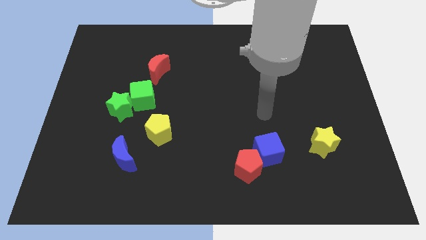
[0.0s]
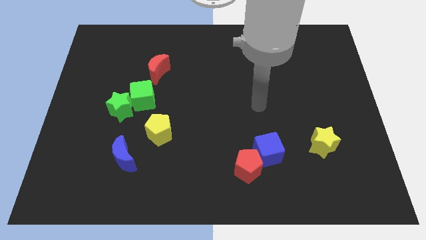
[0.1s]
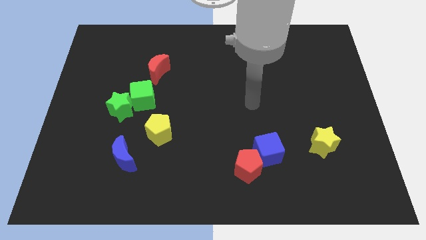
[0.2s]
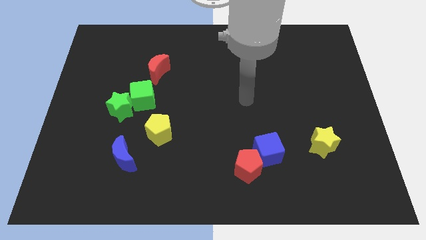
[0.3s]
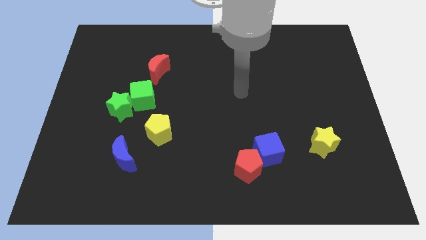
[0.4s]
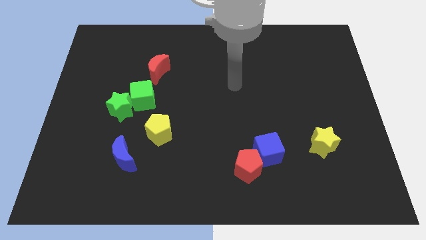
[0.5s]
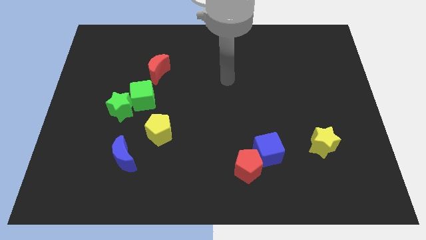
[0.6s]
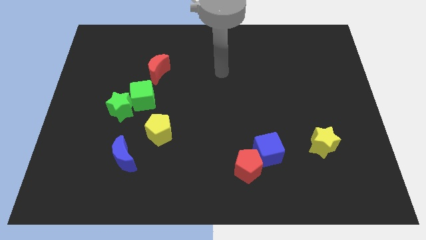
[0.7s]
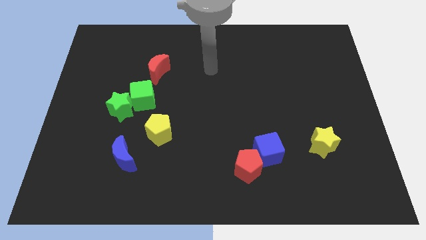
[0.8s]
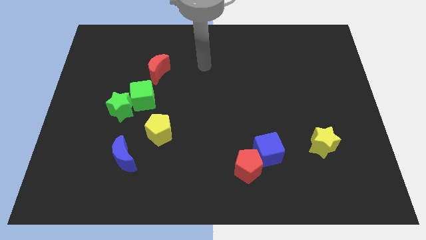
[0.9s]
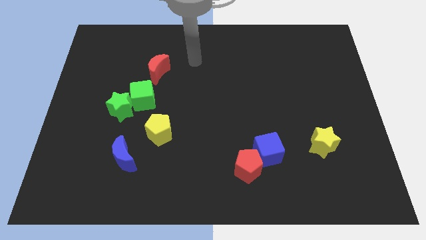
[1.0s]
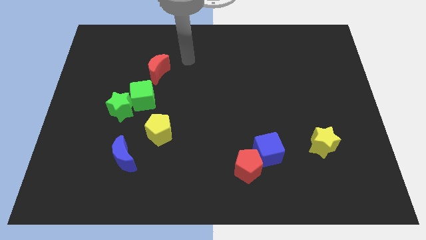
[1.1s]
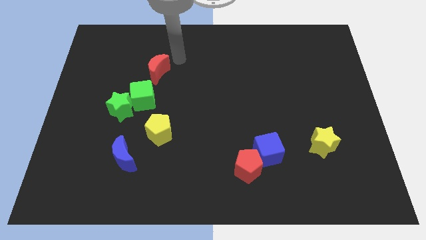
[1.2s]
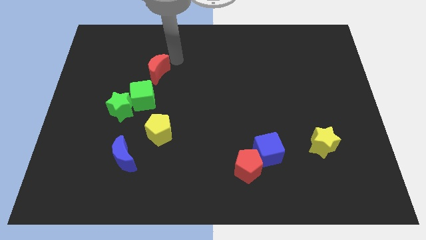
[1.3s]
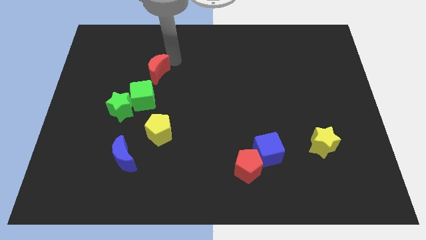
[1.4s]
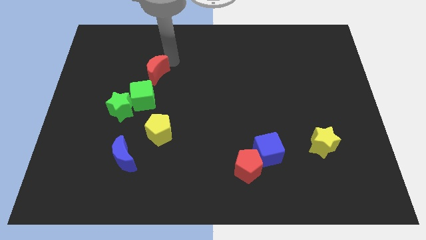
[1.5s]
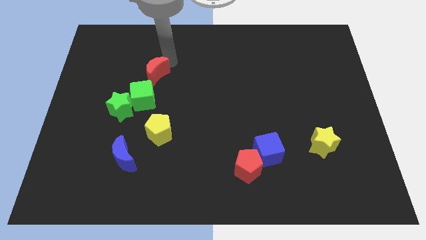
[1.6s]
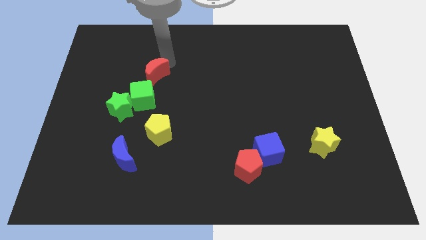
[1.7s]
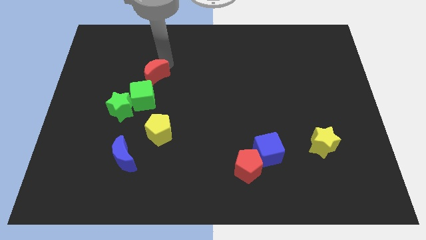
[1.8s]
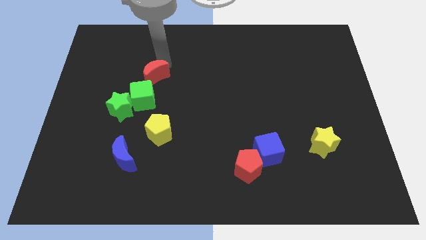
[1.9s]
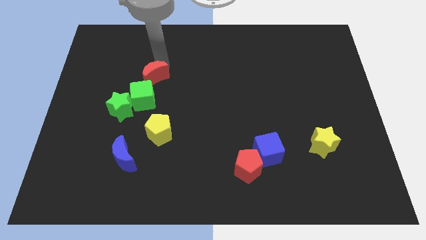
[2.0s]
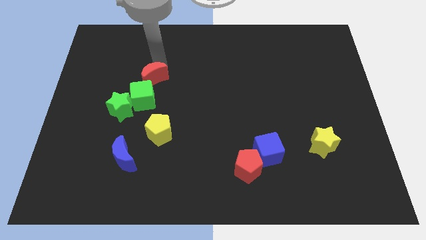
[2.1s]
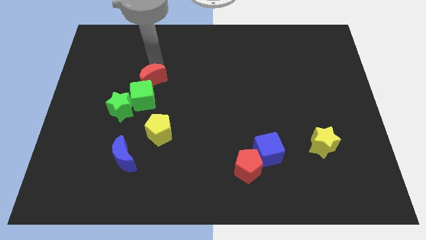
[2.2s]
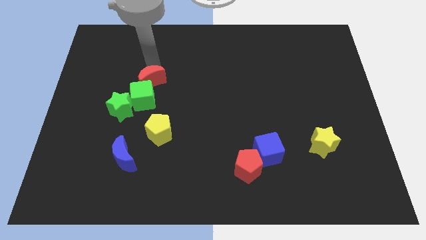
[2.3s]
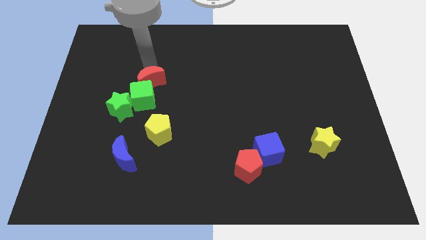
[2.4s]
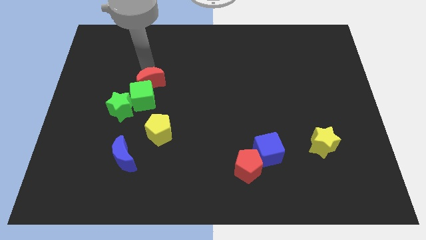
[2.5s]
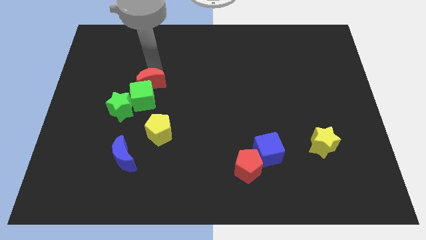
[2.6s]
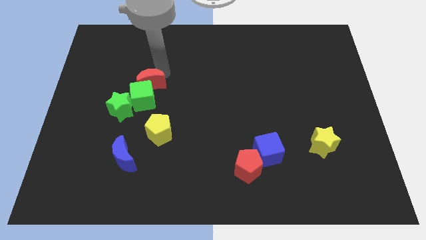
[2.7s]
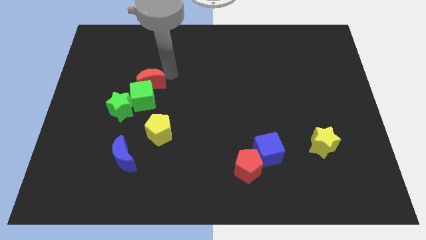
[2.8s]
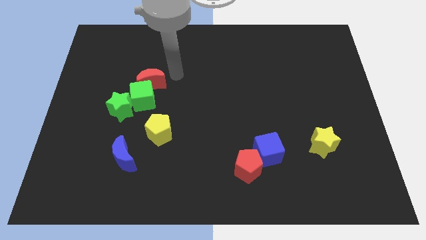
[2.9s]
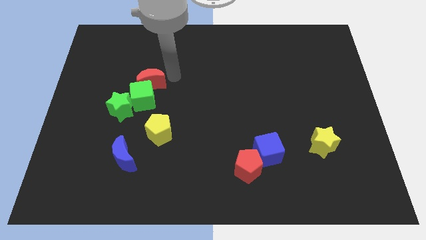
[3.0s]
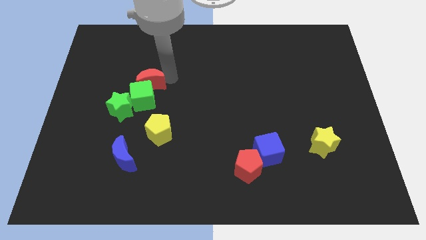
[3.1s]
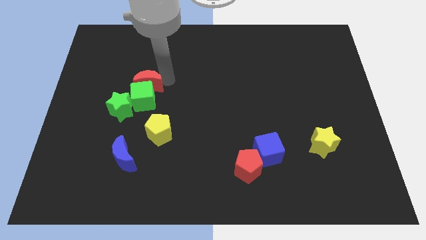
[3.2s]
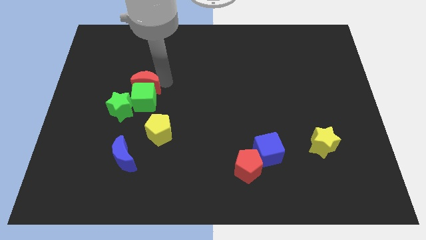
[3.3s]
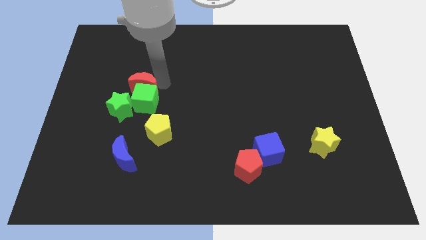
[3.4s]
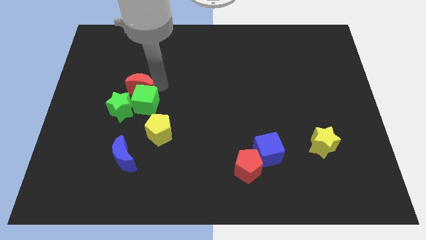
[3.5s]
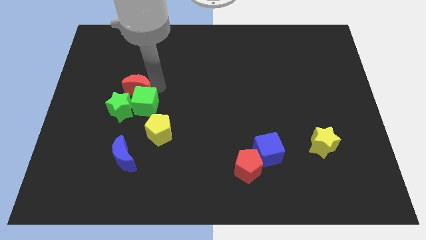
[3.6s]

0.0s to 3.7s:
slide the red moon a little bit down and to the left

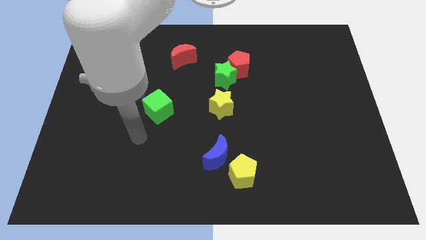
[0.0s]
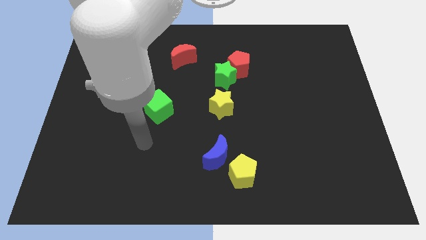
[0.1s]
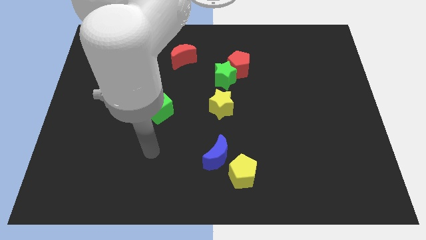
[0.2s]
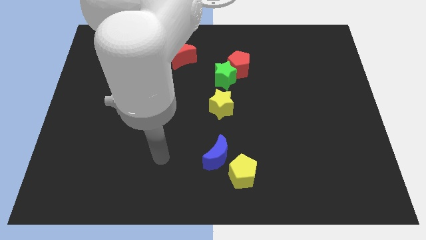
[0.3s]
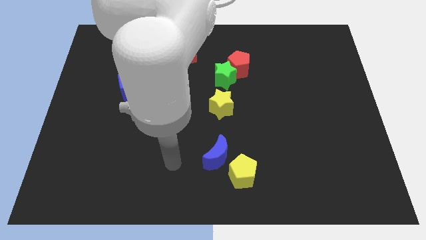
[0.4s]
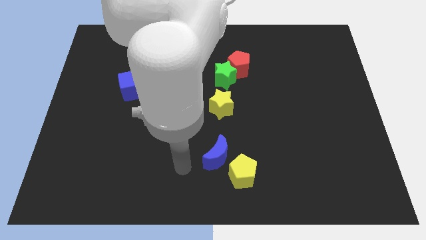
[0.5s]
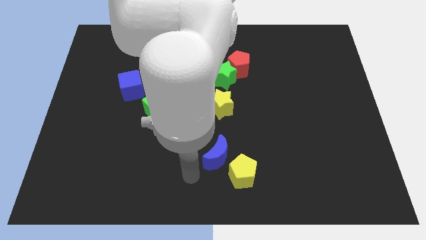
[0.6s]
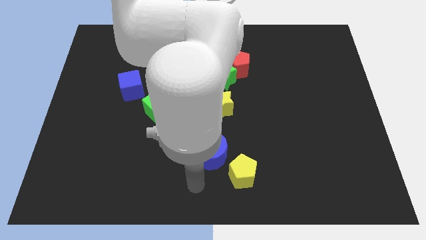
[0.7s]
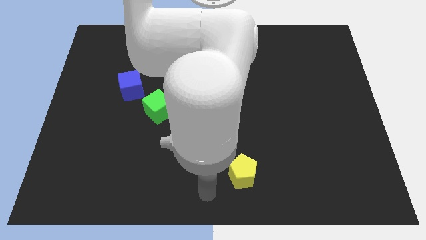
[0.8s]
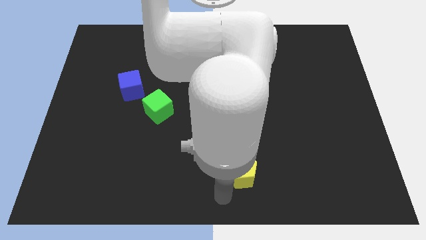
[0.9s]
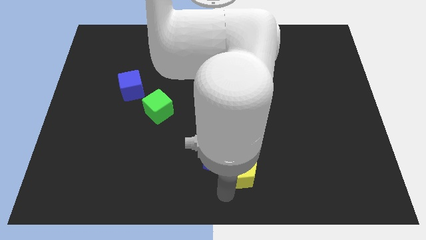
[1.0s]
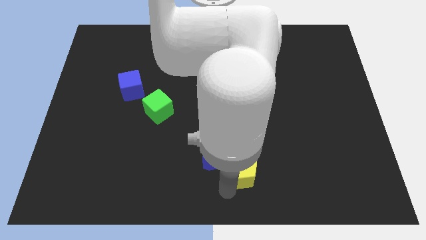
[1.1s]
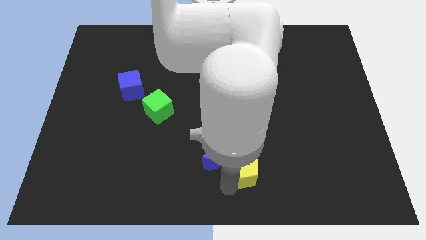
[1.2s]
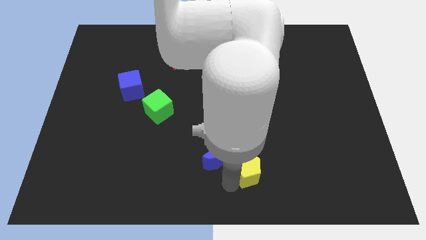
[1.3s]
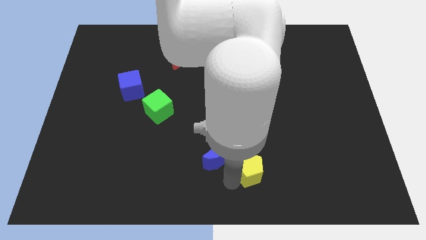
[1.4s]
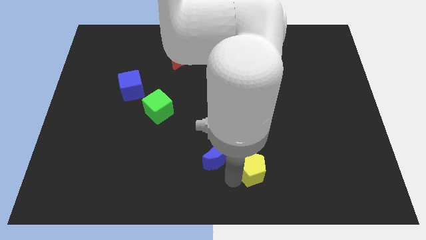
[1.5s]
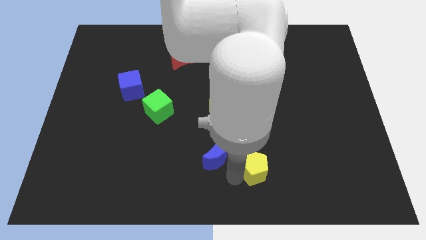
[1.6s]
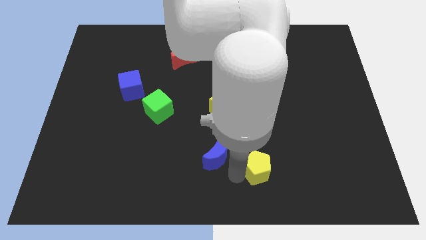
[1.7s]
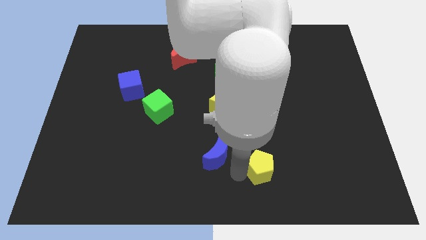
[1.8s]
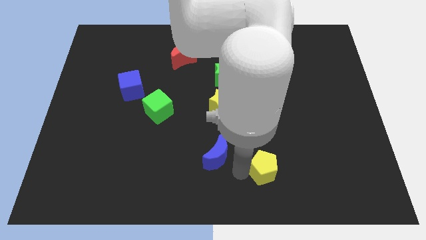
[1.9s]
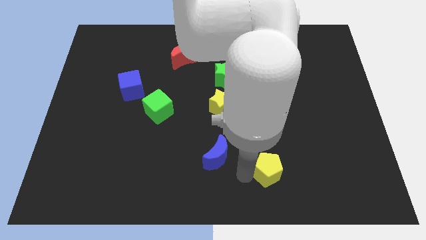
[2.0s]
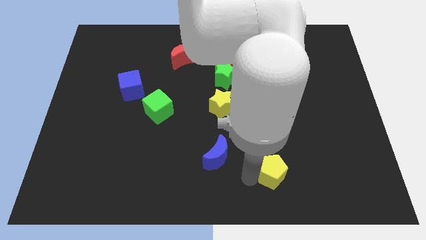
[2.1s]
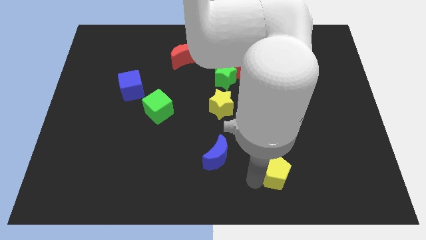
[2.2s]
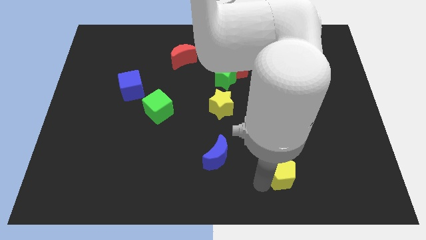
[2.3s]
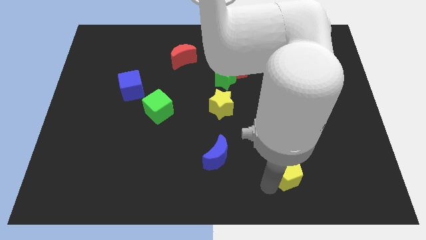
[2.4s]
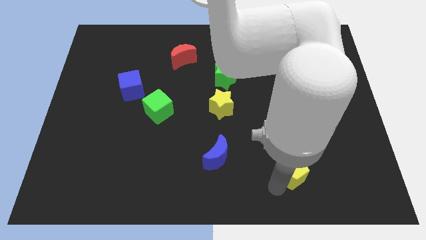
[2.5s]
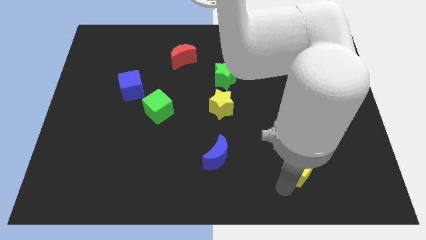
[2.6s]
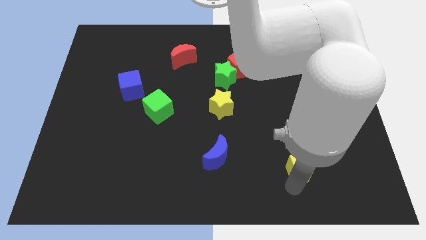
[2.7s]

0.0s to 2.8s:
move the yellow pentagon a little upwards and right diagonally

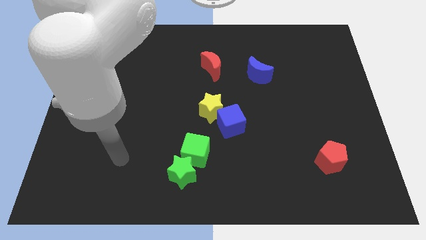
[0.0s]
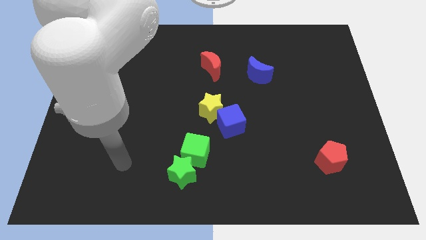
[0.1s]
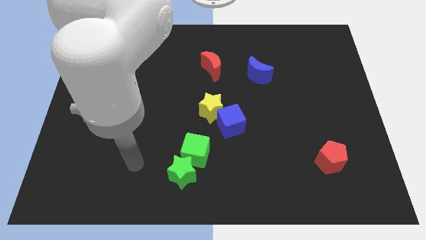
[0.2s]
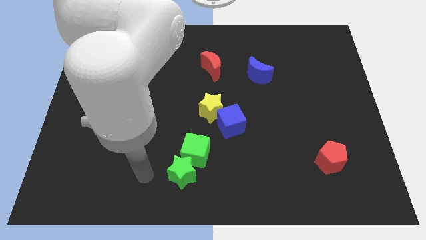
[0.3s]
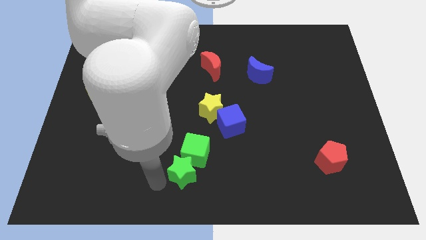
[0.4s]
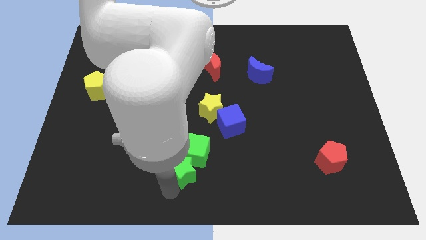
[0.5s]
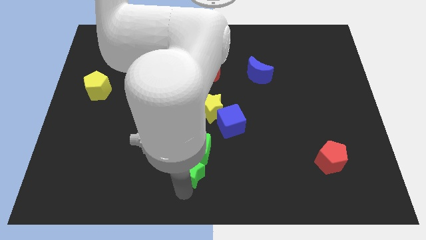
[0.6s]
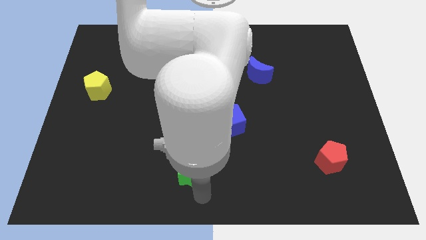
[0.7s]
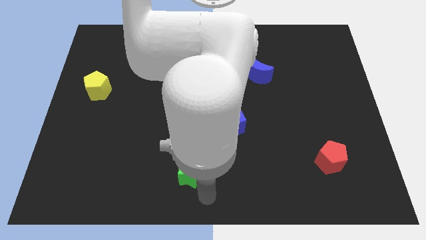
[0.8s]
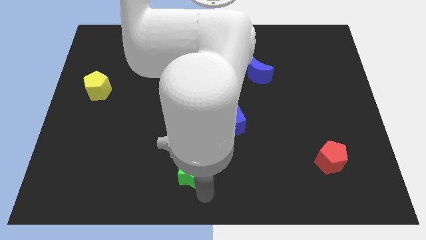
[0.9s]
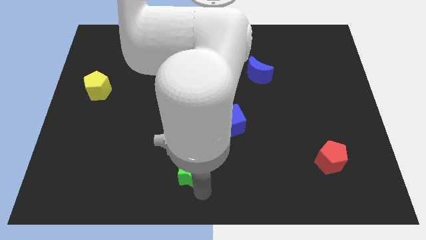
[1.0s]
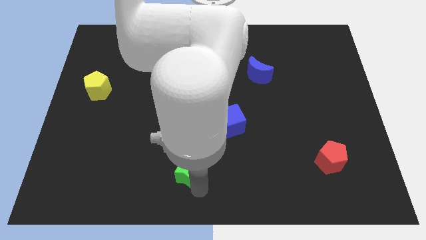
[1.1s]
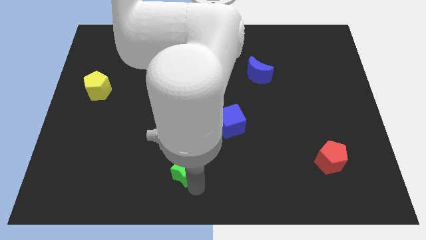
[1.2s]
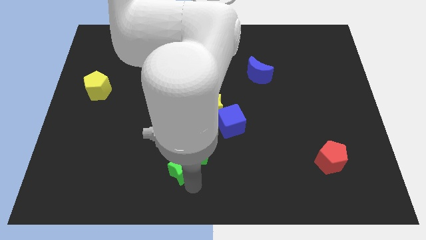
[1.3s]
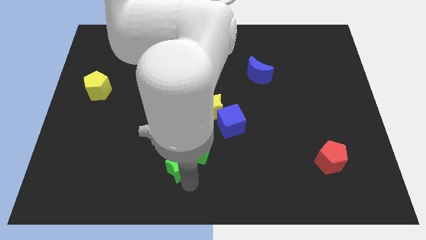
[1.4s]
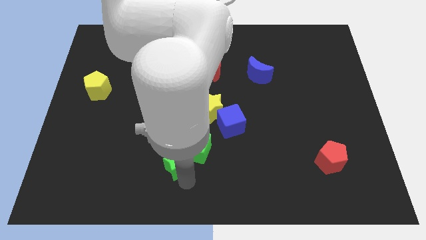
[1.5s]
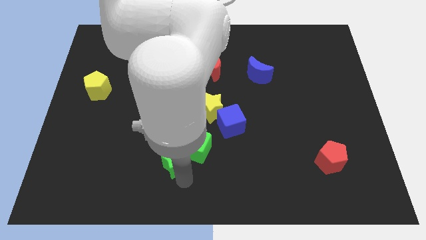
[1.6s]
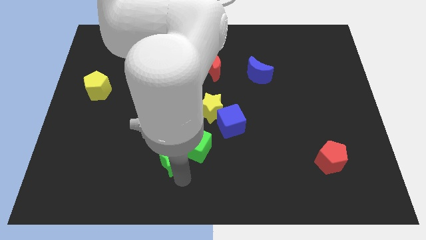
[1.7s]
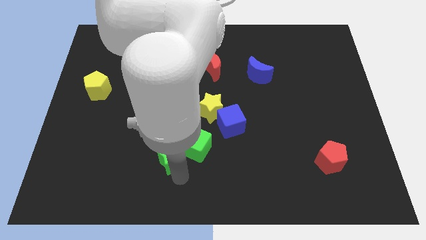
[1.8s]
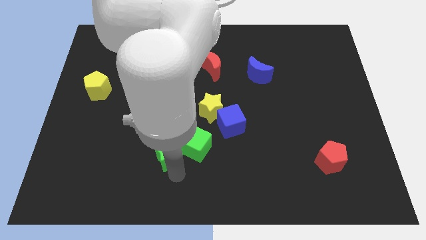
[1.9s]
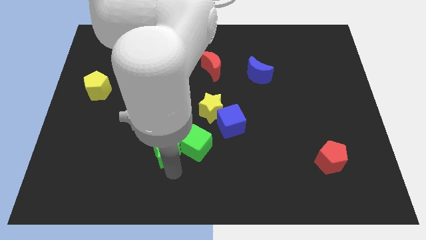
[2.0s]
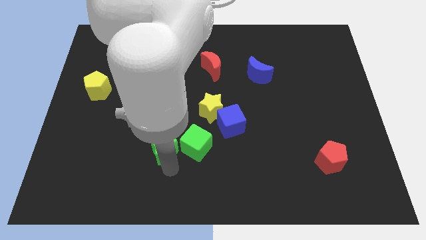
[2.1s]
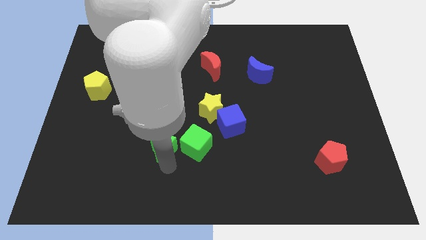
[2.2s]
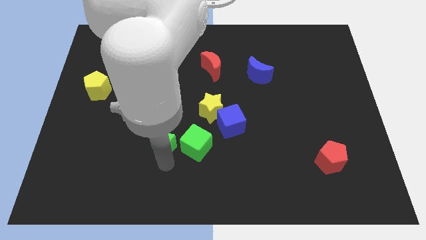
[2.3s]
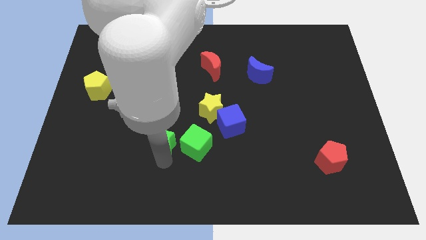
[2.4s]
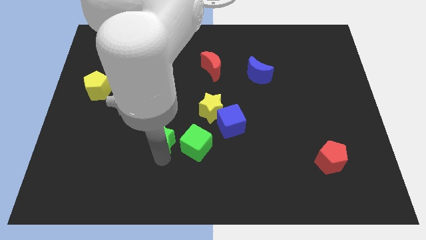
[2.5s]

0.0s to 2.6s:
slightly move the green star up
